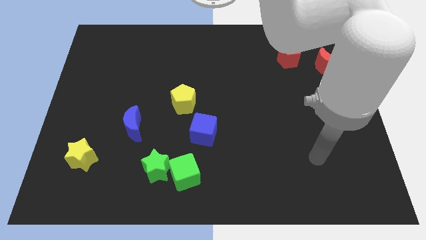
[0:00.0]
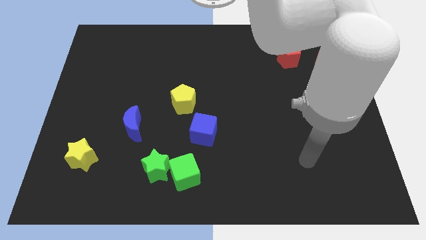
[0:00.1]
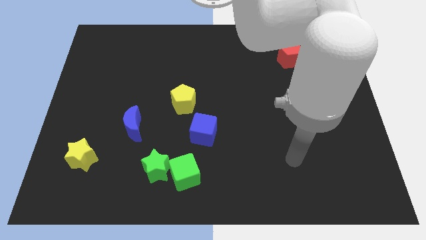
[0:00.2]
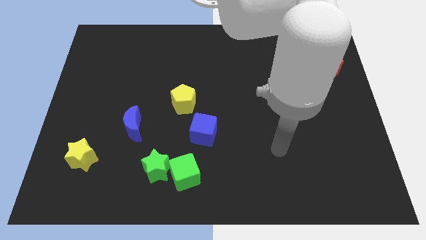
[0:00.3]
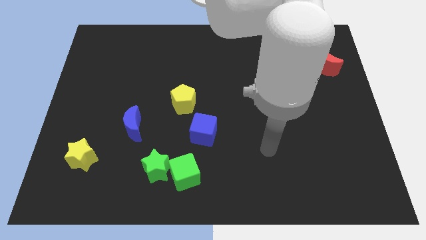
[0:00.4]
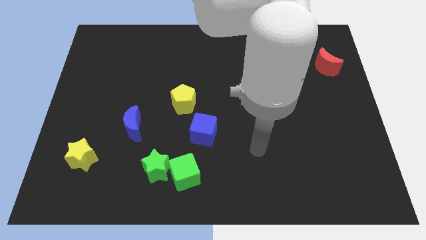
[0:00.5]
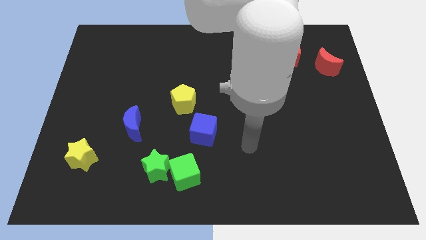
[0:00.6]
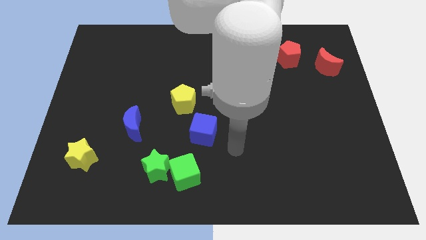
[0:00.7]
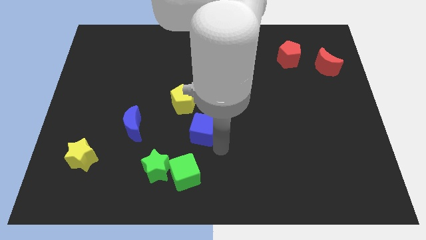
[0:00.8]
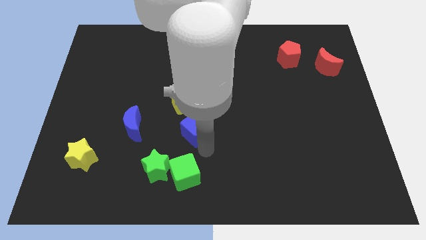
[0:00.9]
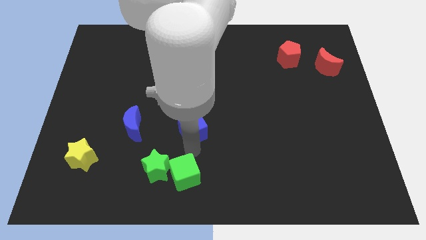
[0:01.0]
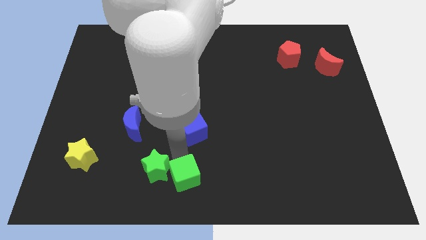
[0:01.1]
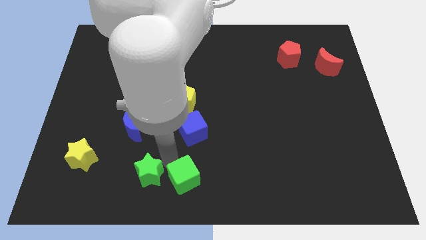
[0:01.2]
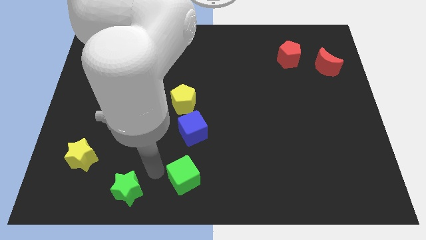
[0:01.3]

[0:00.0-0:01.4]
separate the green cube from the green star

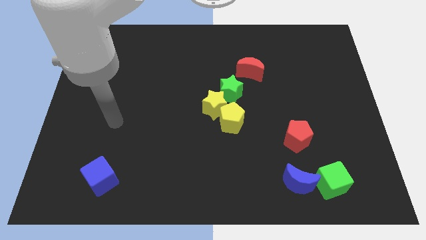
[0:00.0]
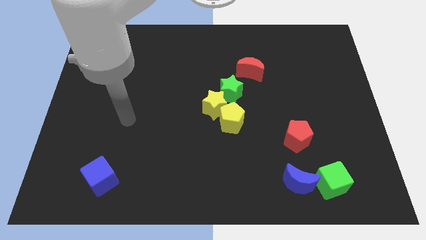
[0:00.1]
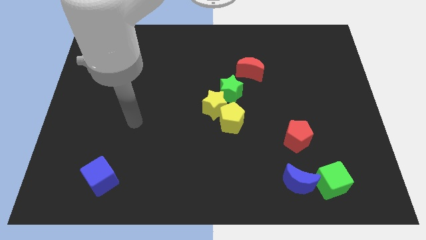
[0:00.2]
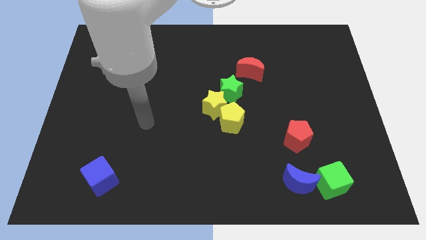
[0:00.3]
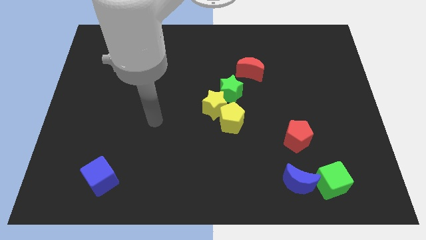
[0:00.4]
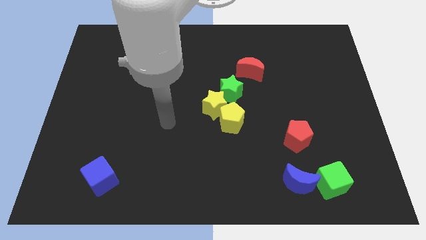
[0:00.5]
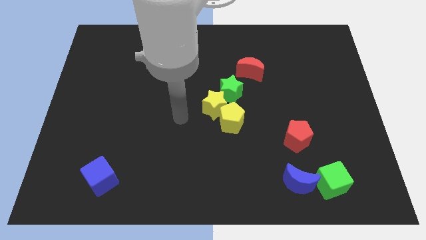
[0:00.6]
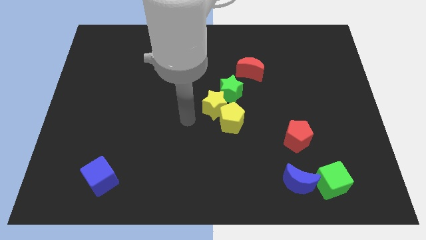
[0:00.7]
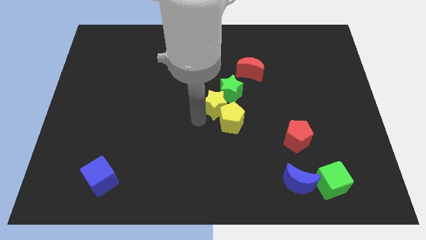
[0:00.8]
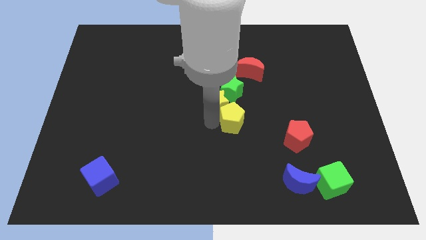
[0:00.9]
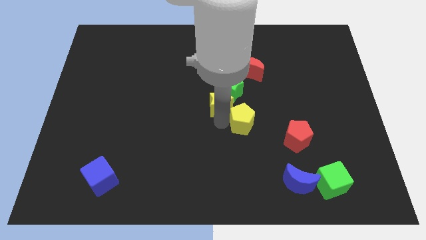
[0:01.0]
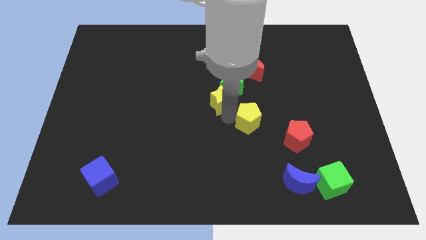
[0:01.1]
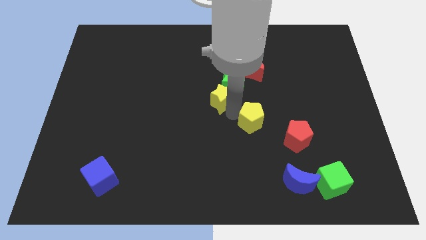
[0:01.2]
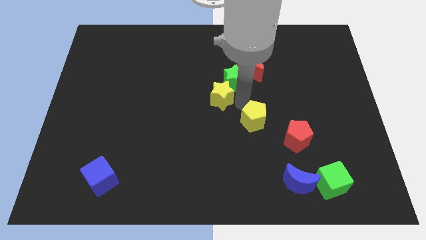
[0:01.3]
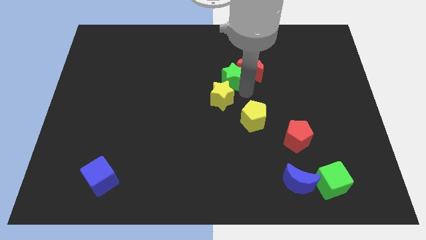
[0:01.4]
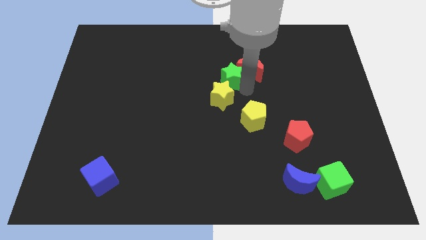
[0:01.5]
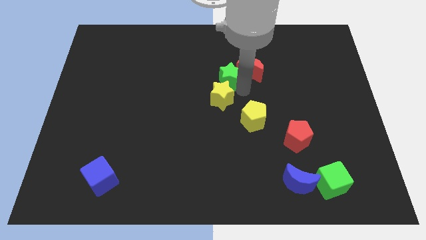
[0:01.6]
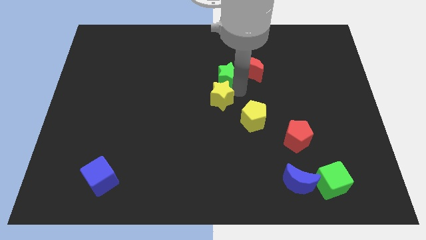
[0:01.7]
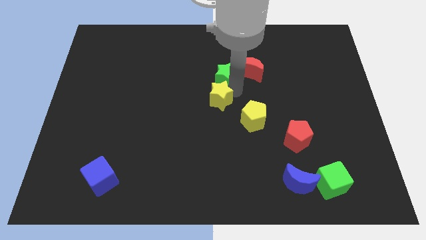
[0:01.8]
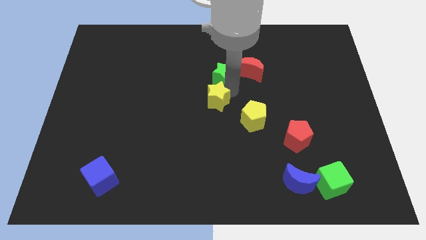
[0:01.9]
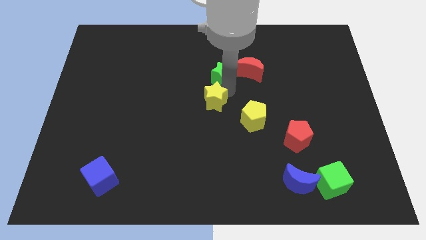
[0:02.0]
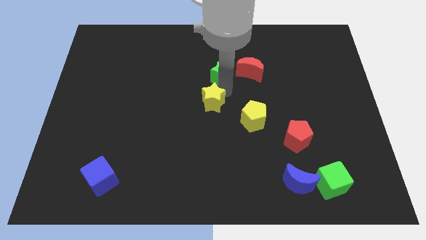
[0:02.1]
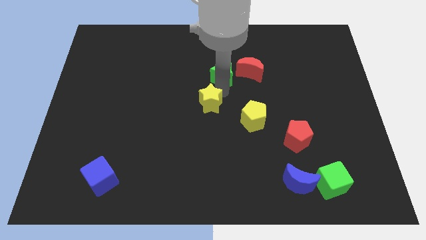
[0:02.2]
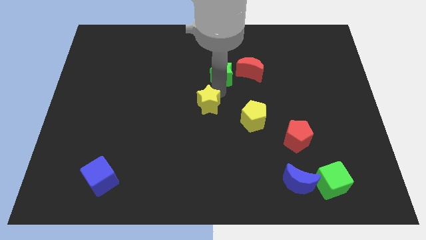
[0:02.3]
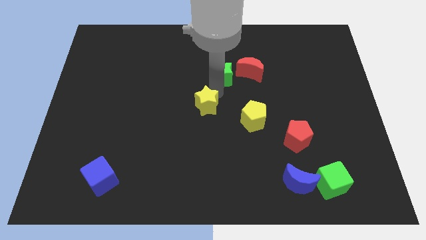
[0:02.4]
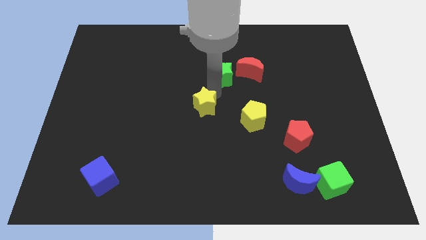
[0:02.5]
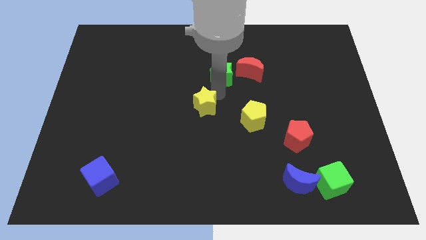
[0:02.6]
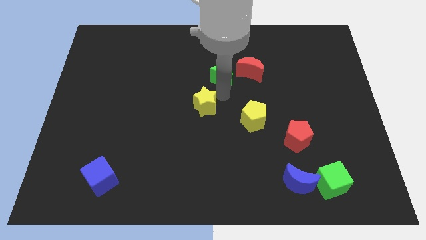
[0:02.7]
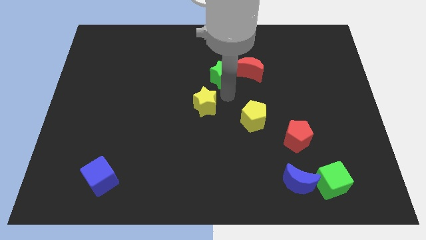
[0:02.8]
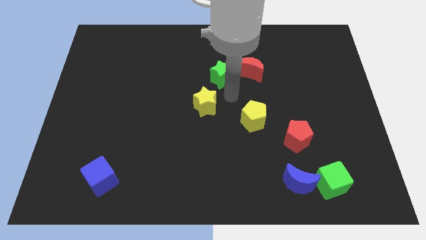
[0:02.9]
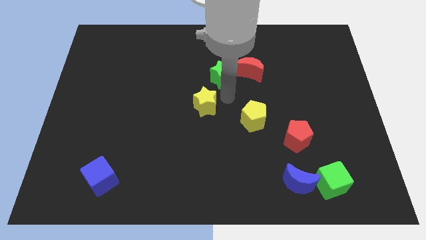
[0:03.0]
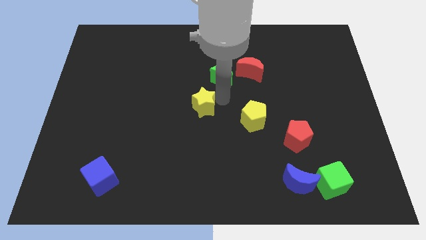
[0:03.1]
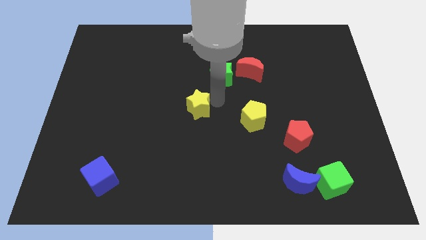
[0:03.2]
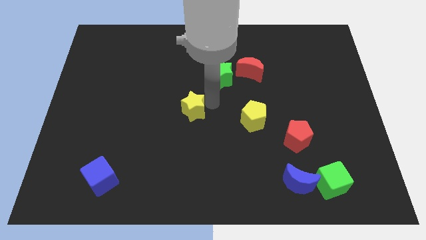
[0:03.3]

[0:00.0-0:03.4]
move the yellow star away from the yellow pentagon and green star

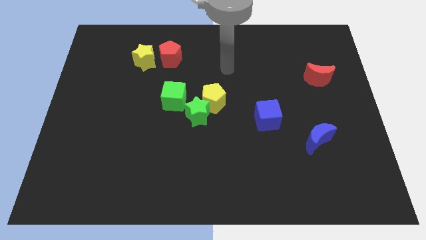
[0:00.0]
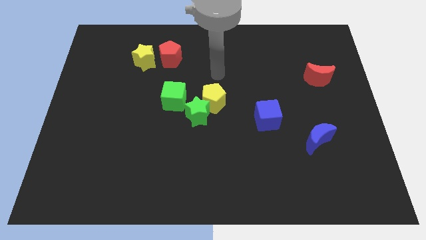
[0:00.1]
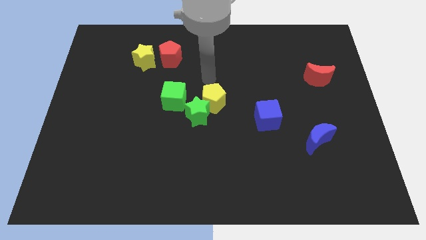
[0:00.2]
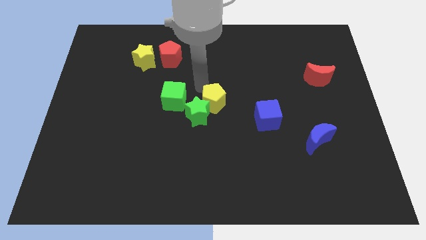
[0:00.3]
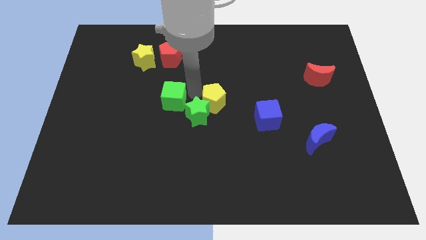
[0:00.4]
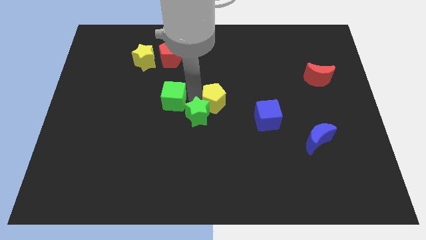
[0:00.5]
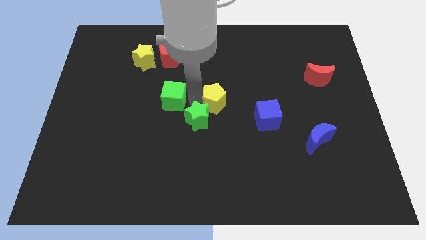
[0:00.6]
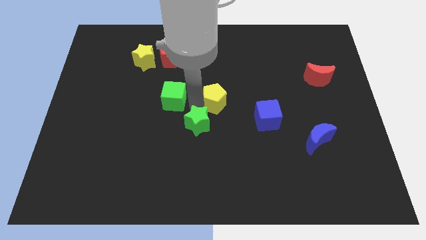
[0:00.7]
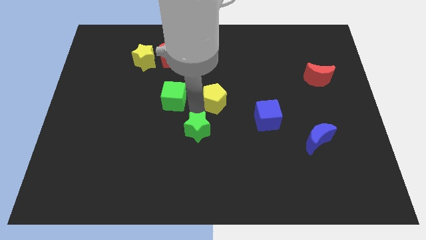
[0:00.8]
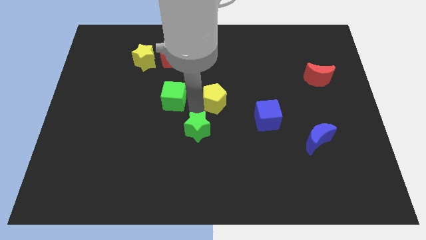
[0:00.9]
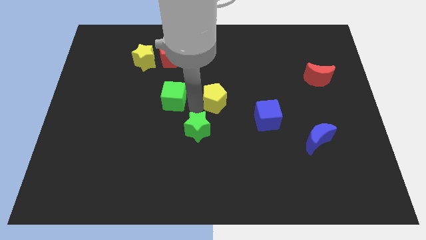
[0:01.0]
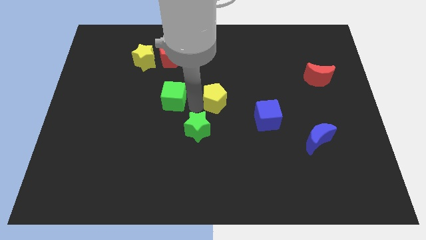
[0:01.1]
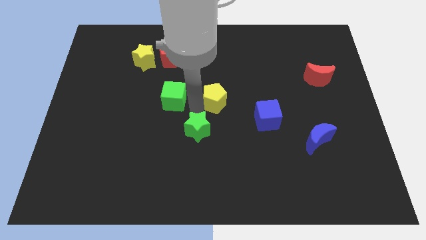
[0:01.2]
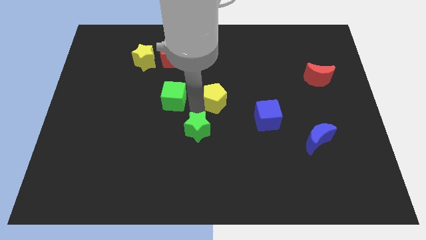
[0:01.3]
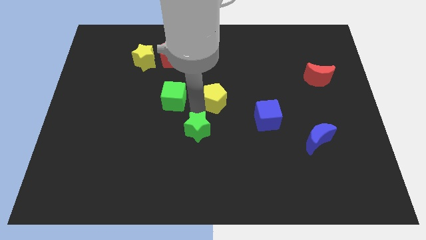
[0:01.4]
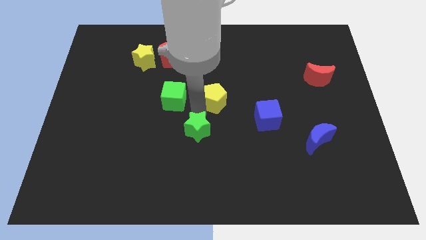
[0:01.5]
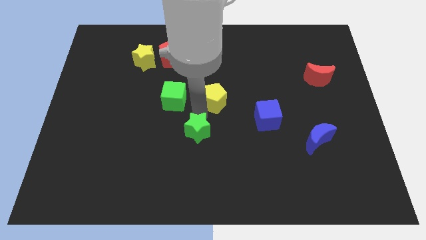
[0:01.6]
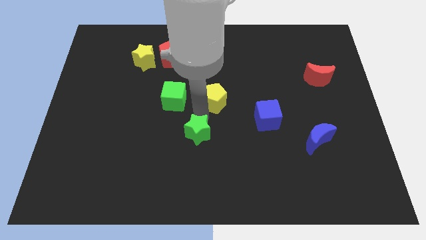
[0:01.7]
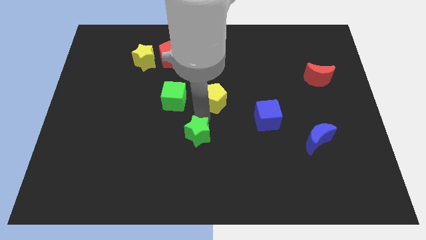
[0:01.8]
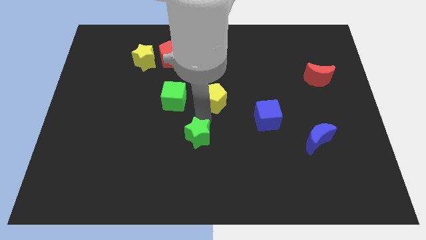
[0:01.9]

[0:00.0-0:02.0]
separate the green star from the yellow pentagon and green cube

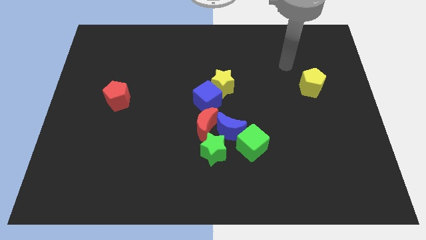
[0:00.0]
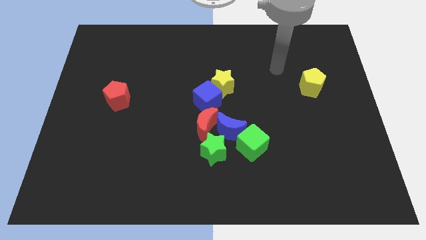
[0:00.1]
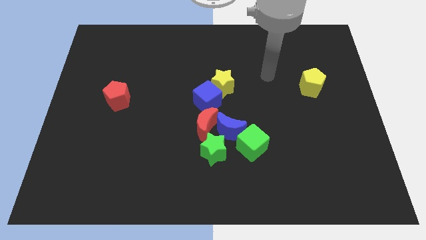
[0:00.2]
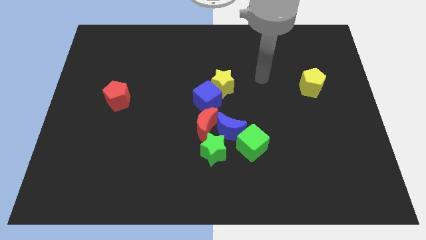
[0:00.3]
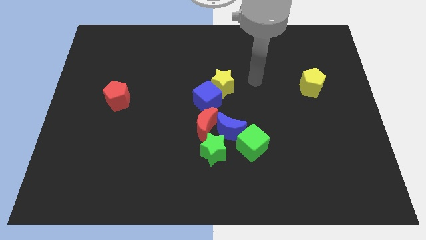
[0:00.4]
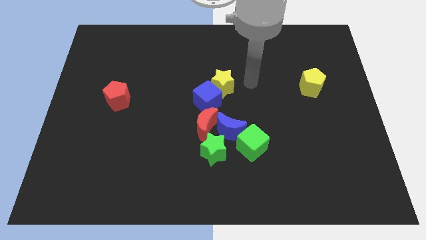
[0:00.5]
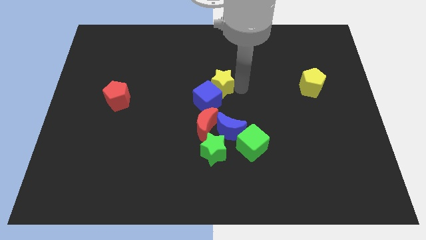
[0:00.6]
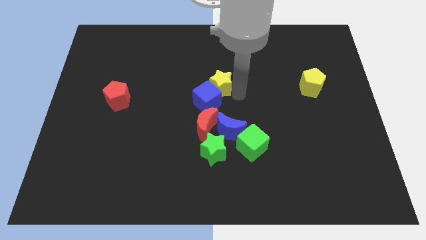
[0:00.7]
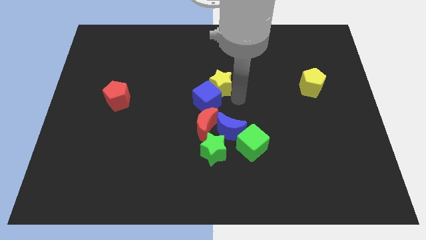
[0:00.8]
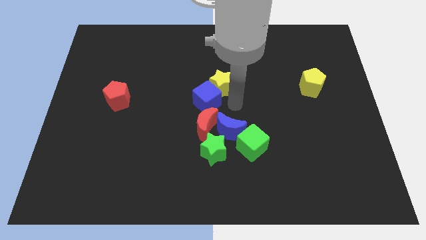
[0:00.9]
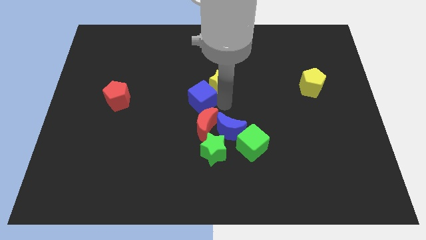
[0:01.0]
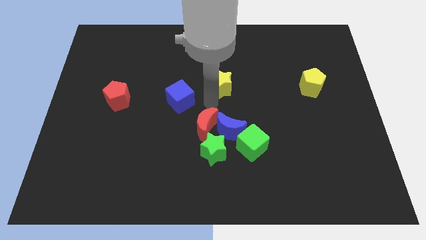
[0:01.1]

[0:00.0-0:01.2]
move the yellow star away from the blue cube

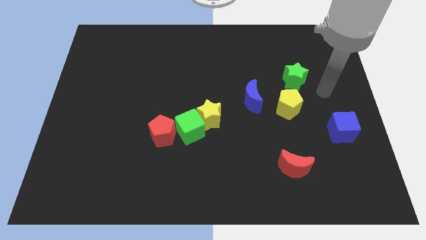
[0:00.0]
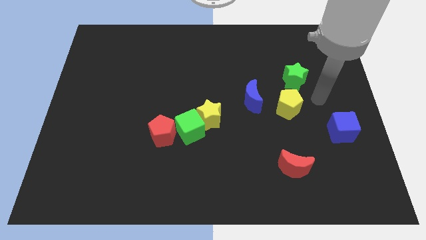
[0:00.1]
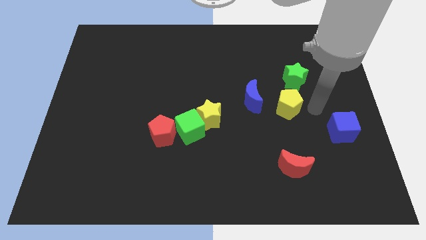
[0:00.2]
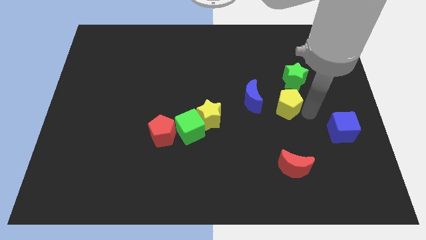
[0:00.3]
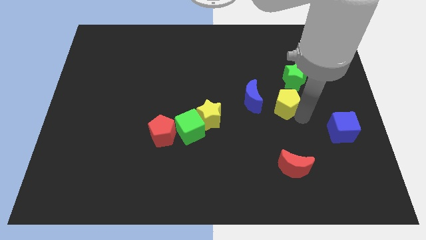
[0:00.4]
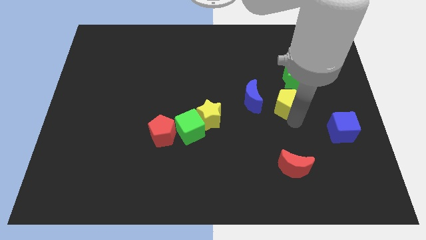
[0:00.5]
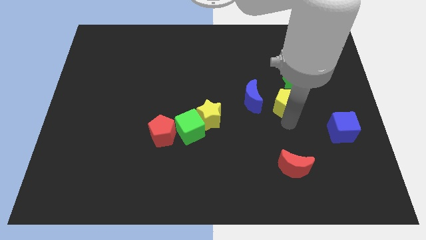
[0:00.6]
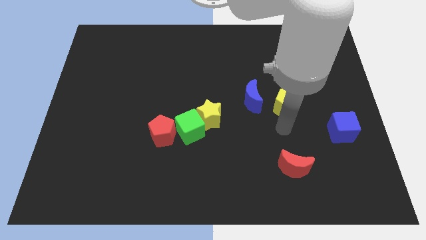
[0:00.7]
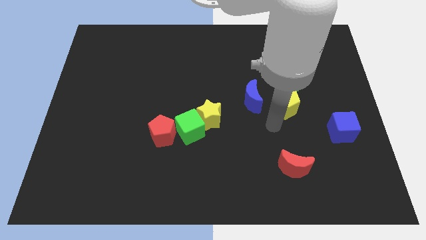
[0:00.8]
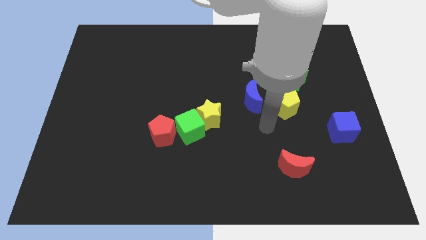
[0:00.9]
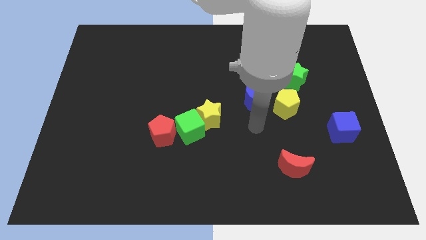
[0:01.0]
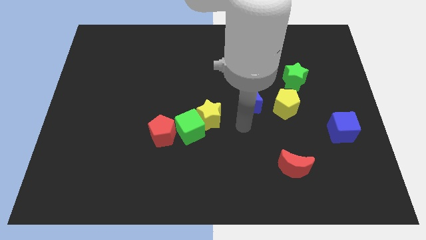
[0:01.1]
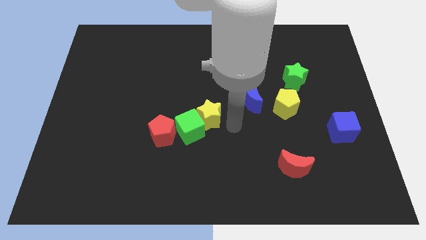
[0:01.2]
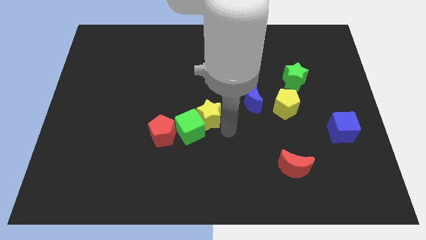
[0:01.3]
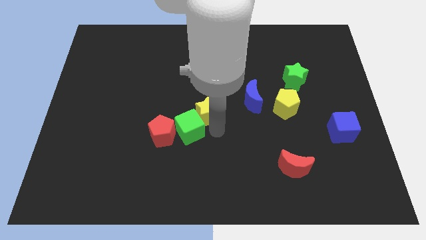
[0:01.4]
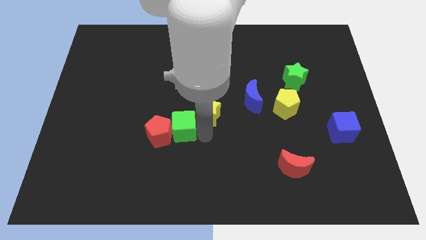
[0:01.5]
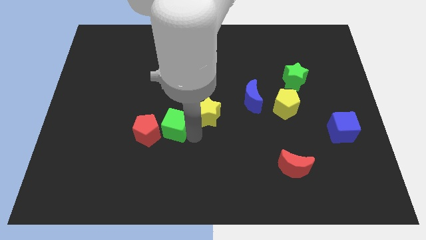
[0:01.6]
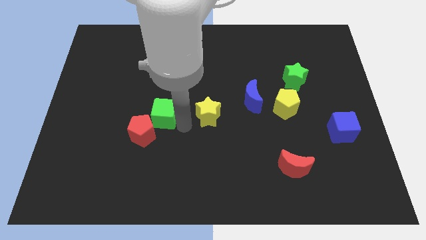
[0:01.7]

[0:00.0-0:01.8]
move the yellow star away from the green cube
